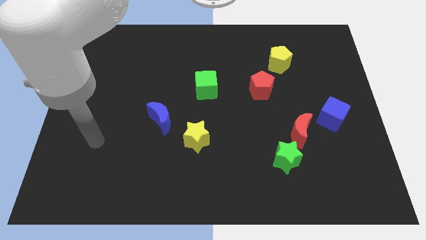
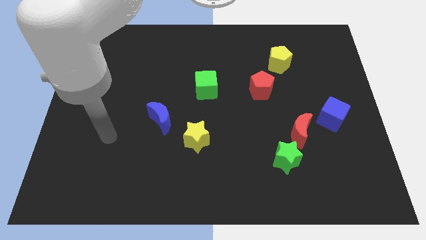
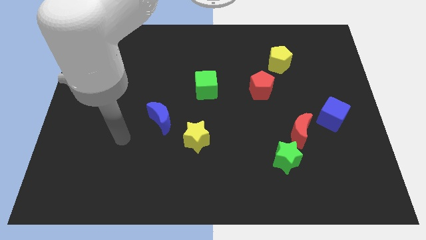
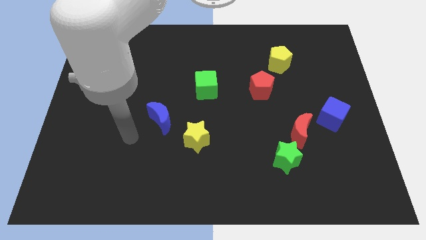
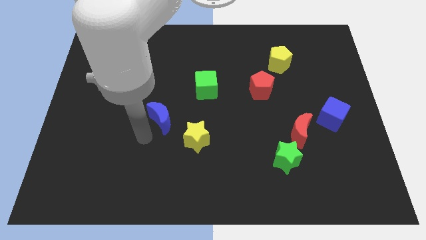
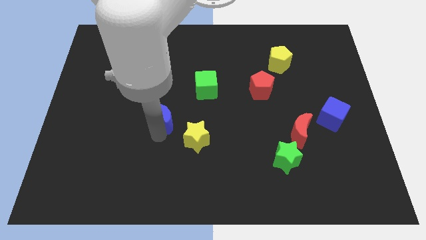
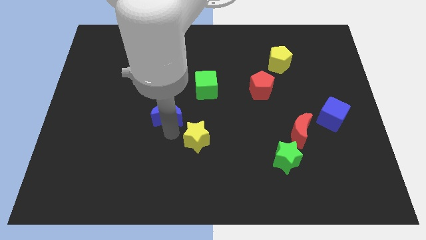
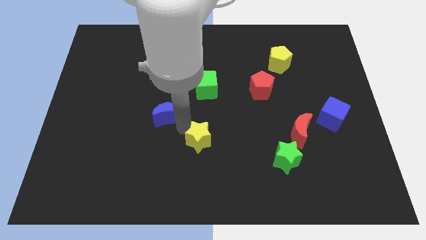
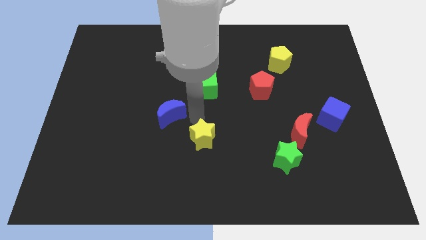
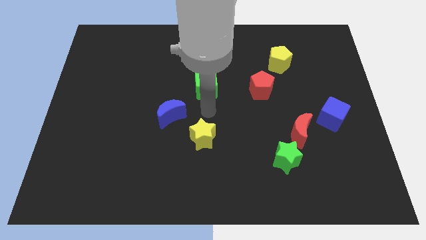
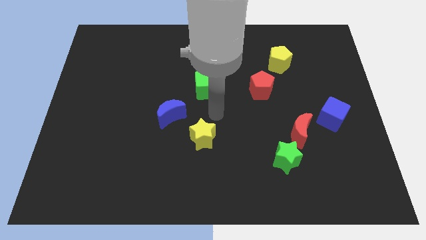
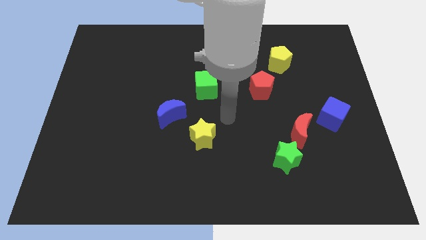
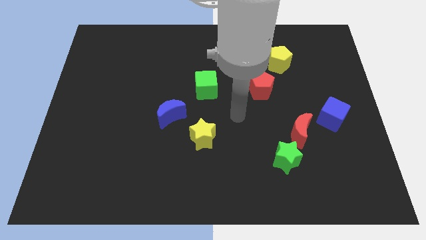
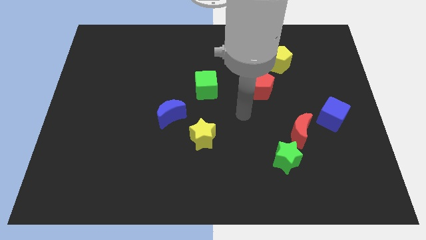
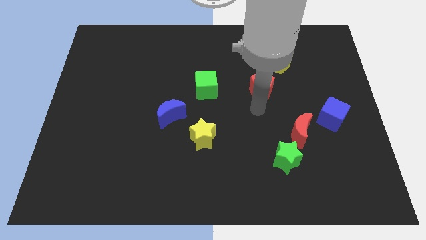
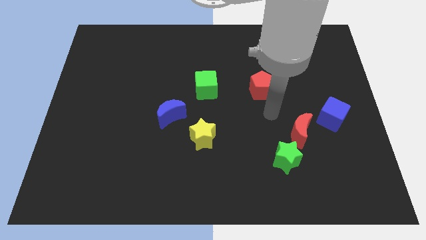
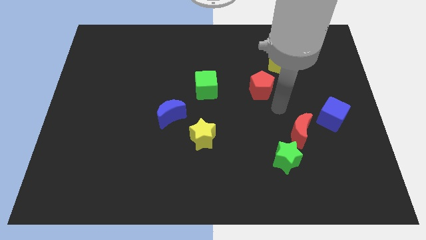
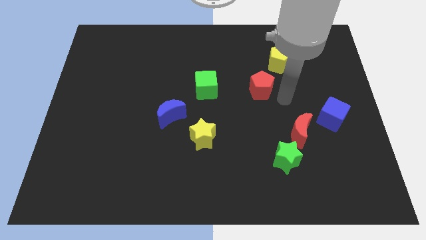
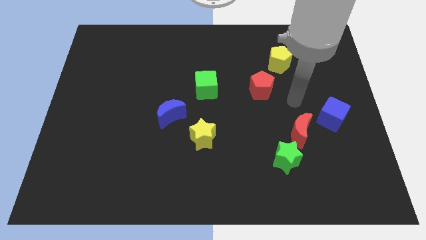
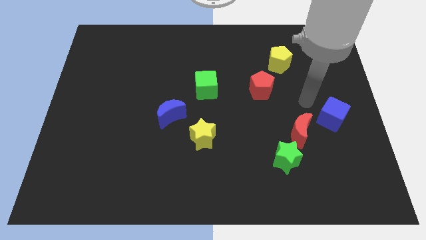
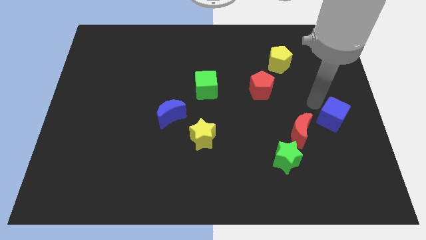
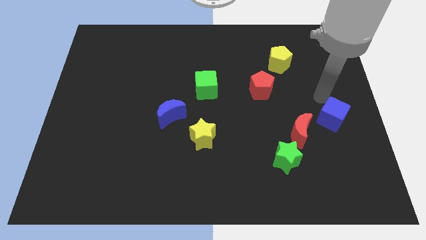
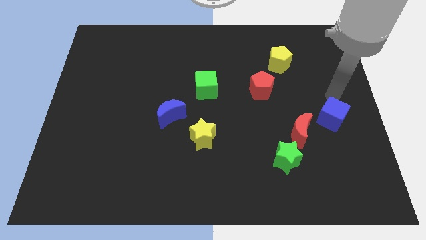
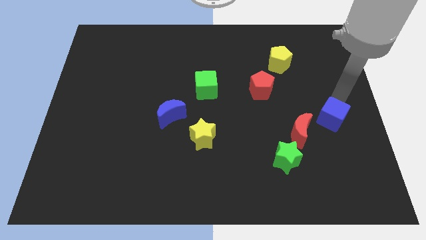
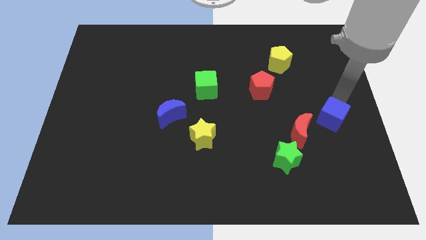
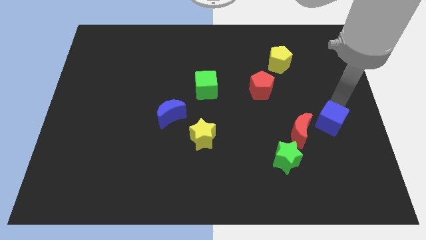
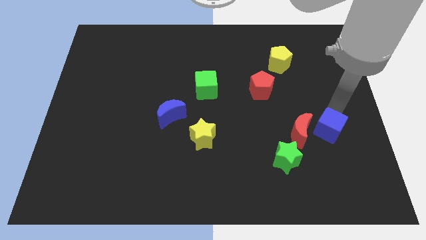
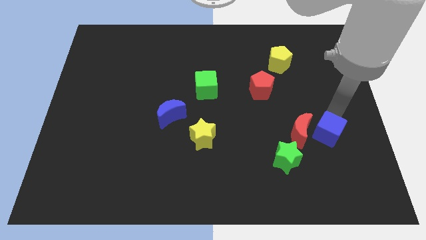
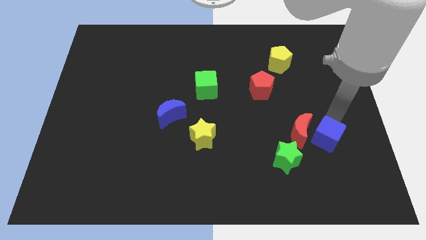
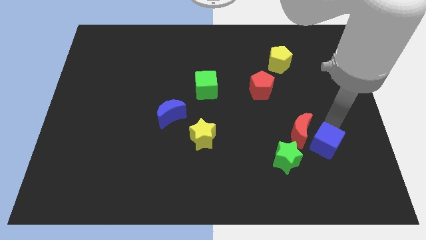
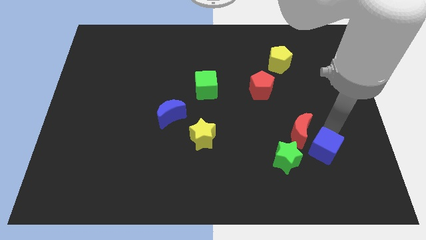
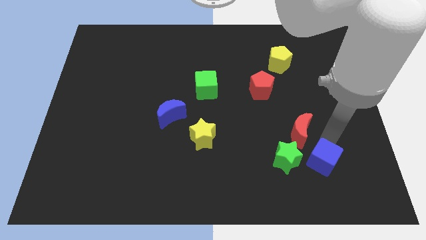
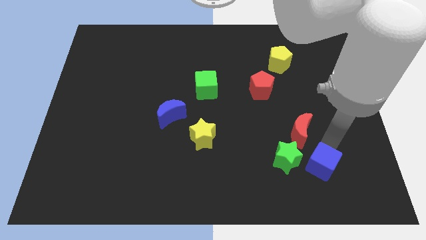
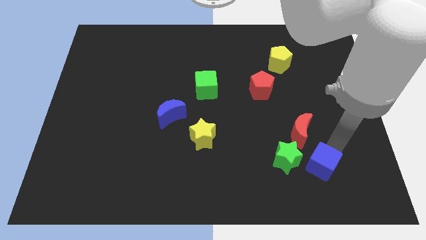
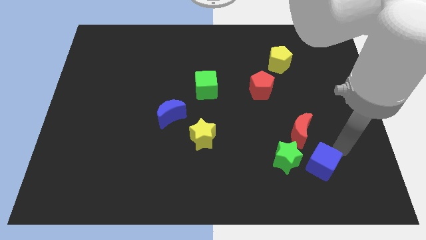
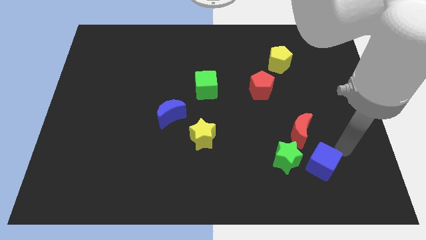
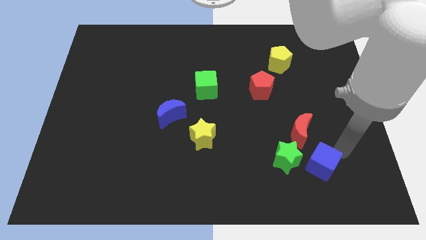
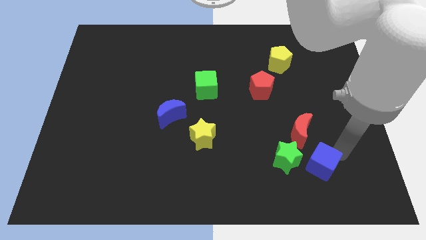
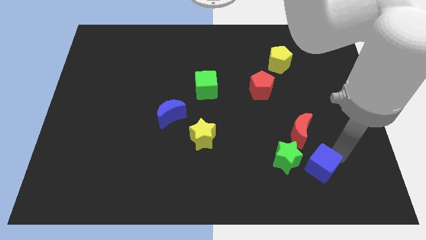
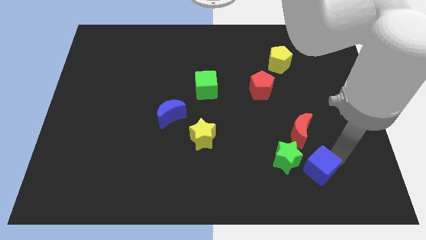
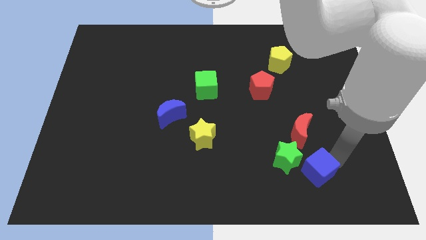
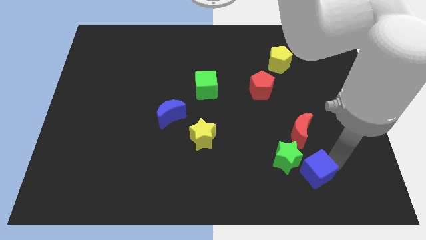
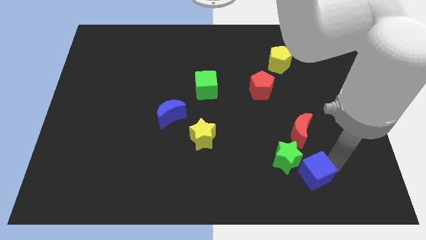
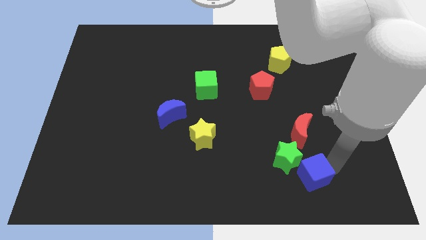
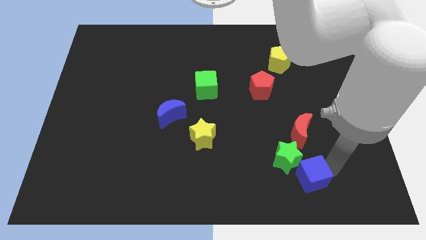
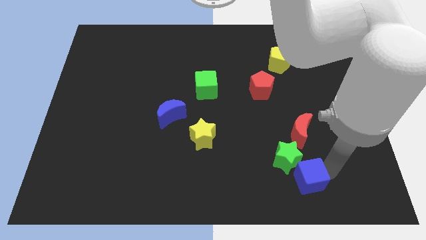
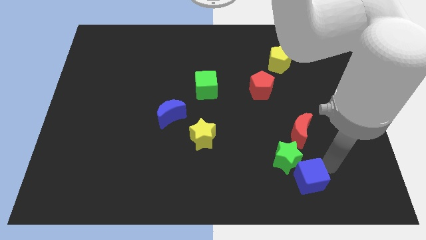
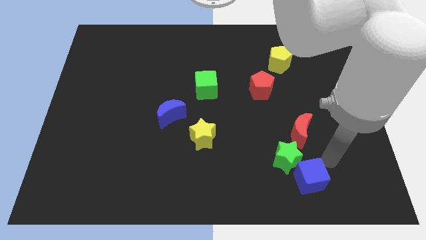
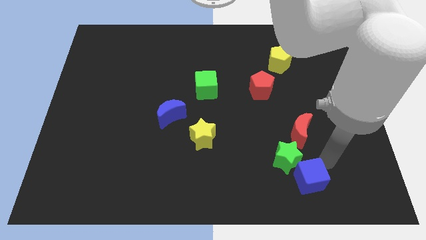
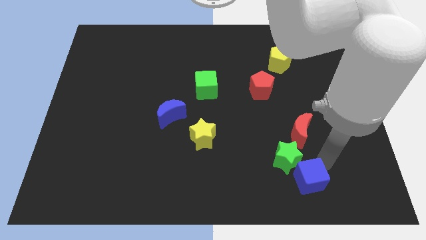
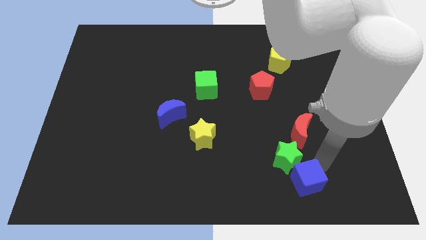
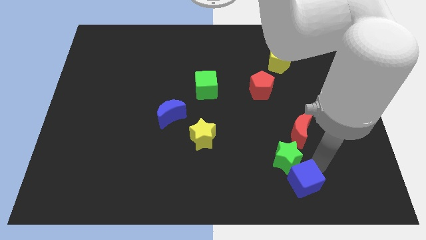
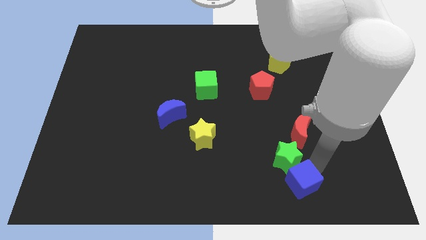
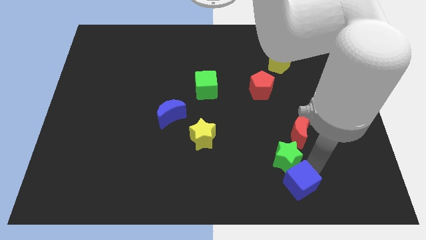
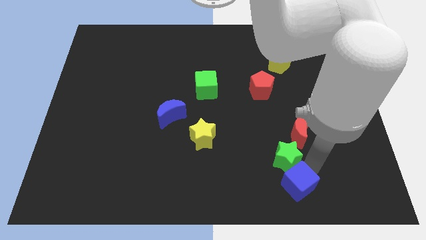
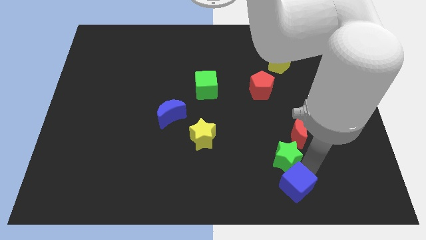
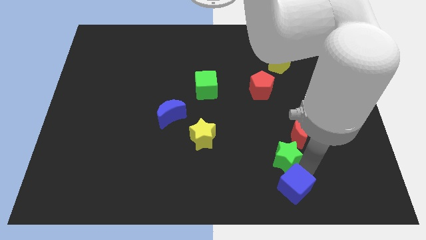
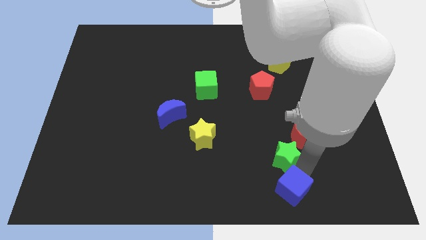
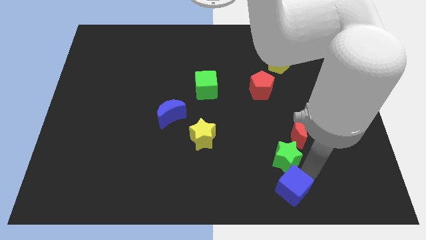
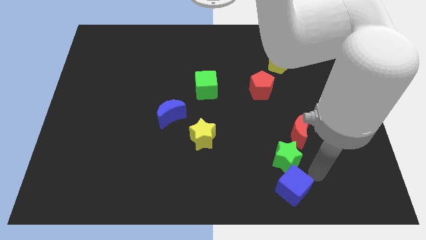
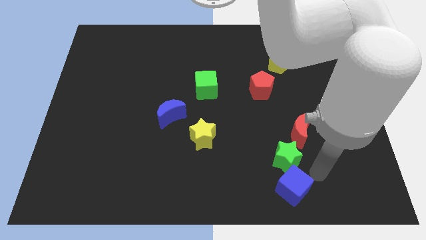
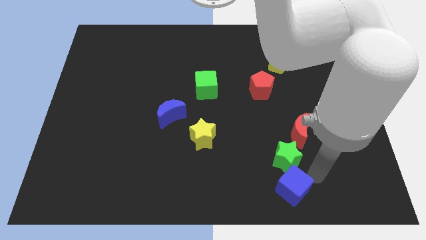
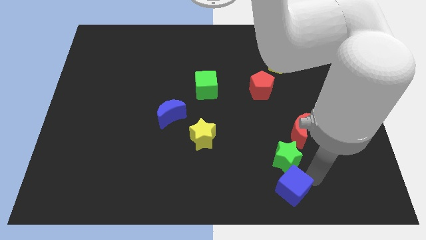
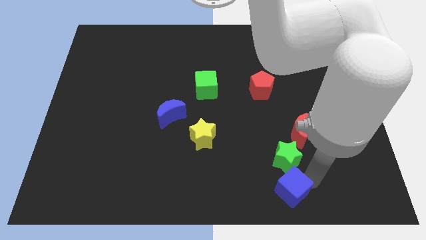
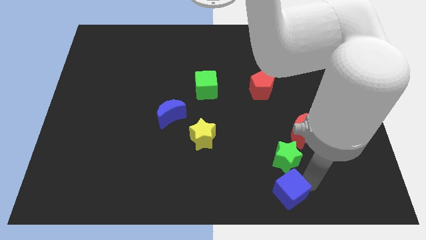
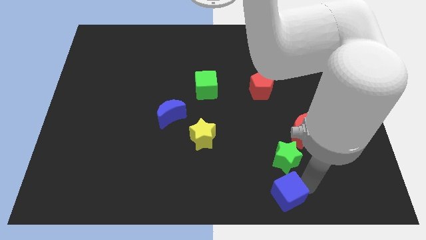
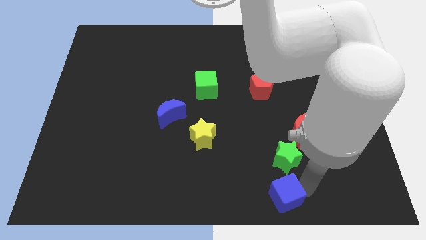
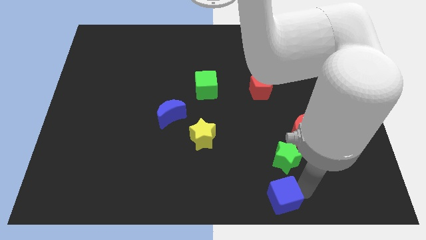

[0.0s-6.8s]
move the blue cube to the bottom
